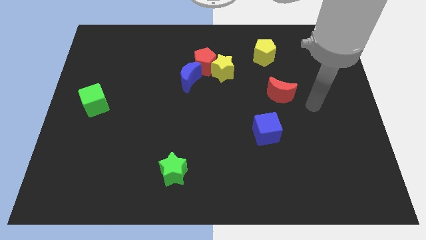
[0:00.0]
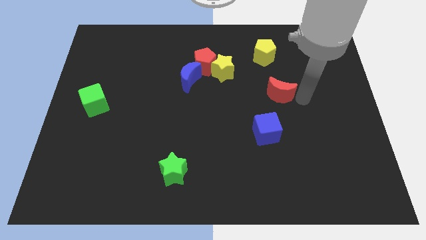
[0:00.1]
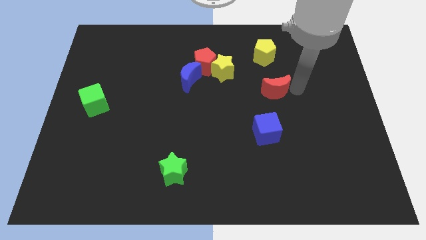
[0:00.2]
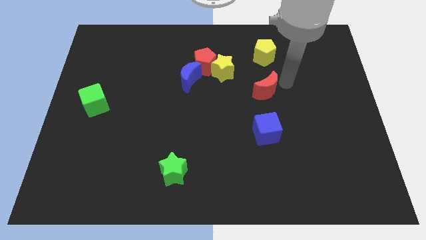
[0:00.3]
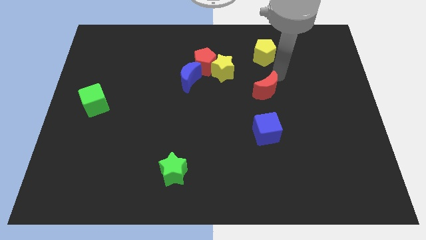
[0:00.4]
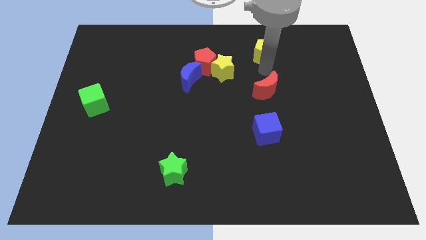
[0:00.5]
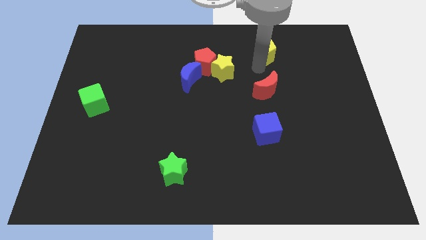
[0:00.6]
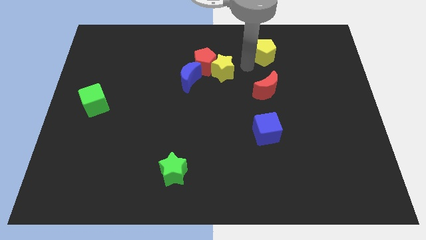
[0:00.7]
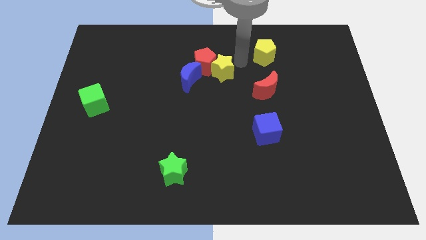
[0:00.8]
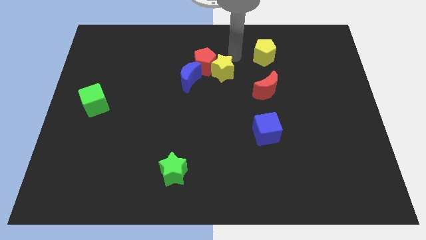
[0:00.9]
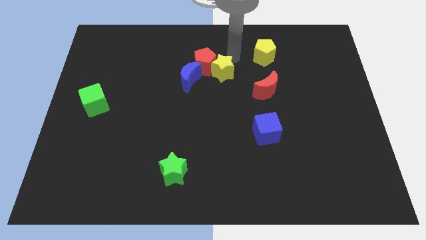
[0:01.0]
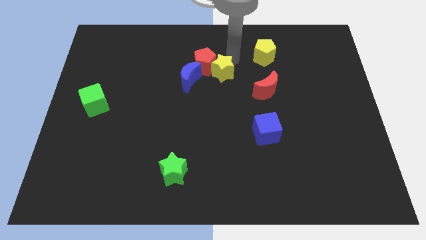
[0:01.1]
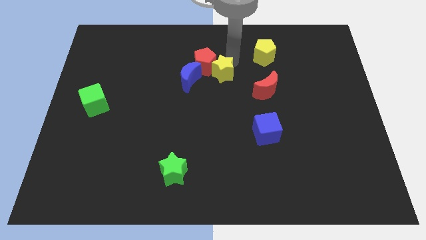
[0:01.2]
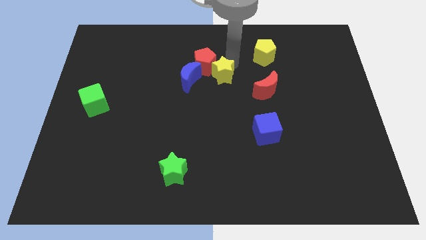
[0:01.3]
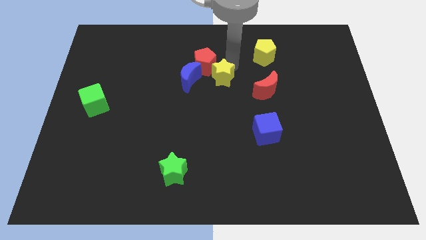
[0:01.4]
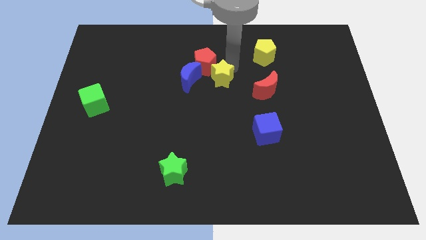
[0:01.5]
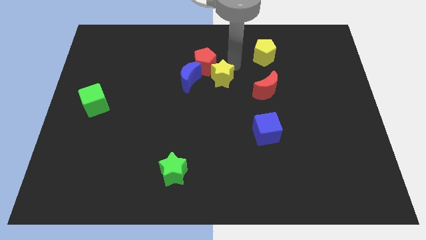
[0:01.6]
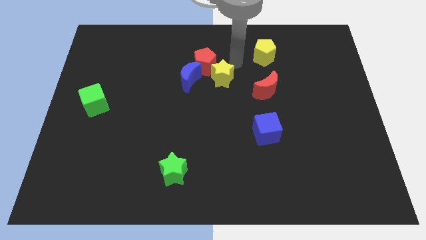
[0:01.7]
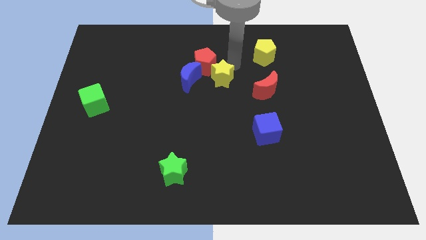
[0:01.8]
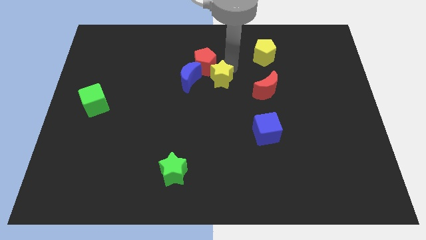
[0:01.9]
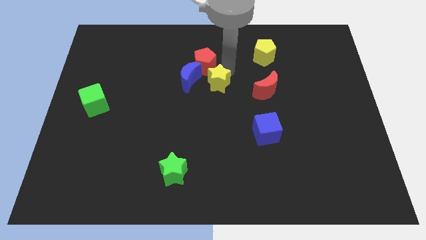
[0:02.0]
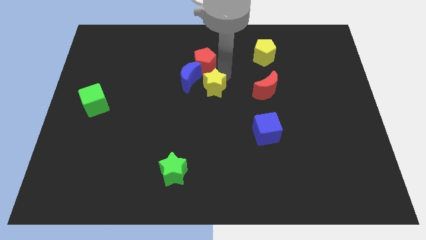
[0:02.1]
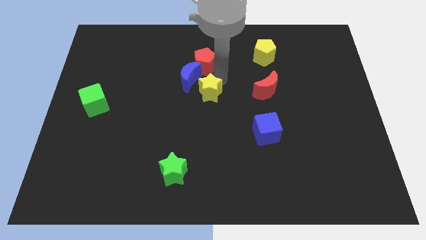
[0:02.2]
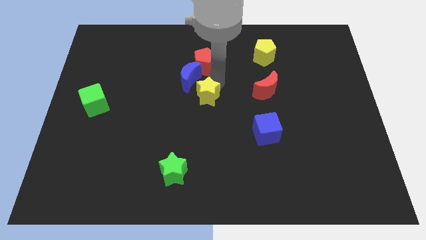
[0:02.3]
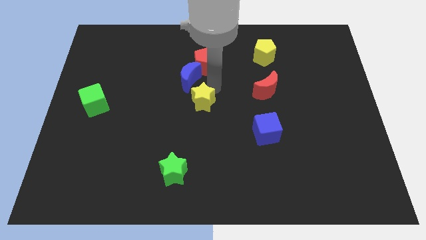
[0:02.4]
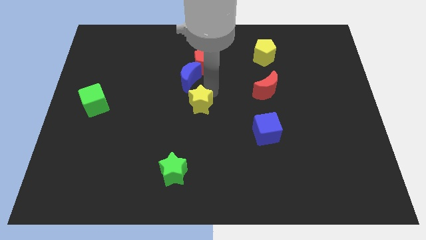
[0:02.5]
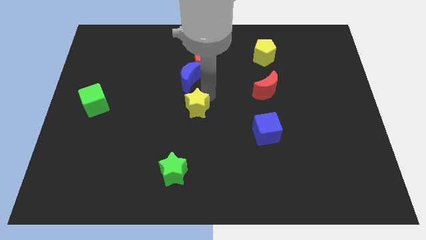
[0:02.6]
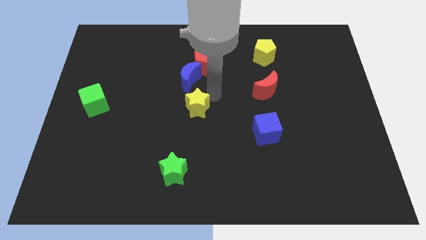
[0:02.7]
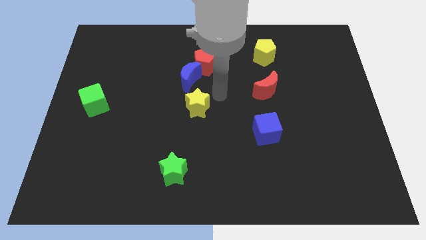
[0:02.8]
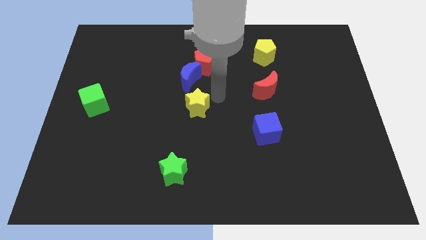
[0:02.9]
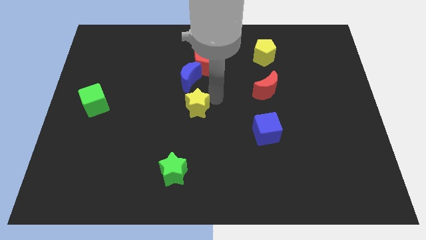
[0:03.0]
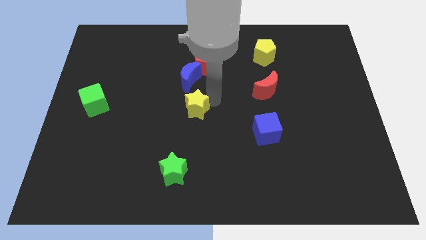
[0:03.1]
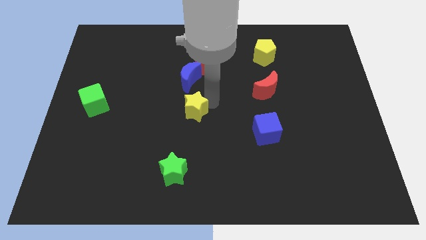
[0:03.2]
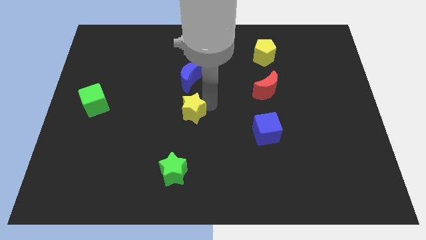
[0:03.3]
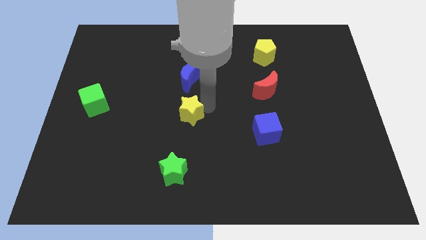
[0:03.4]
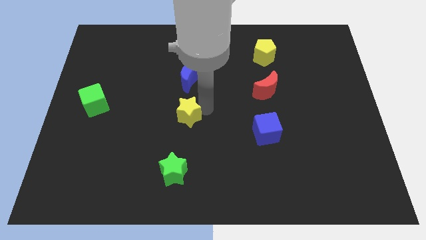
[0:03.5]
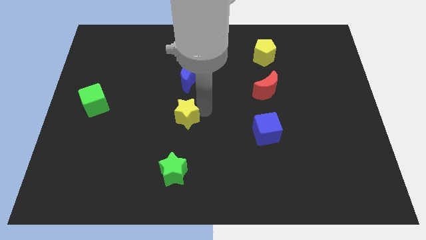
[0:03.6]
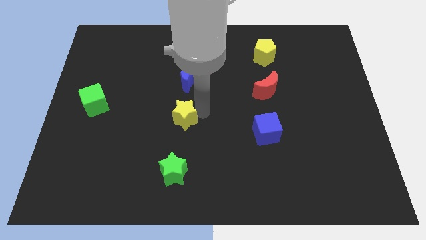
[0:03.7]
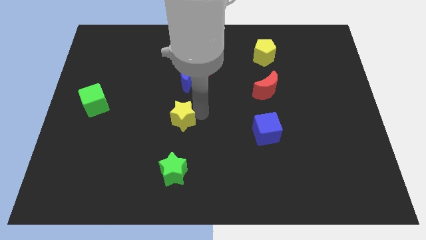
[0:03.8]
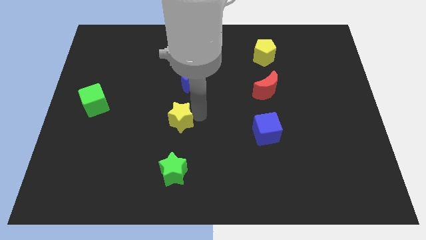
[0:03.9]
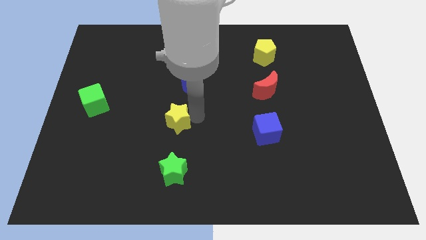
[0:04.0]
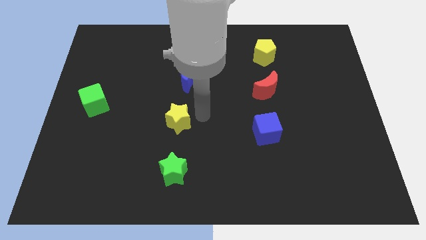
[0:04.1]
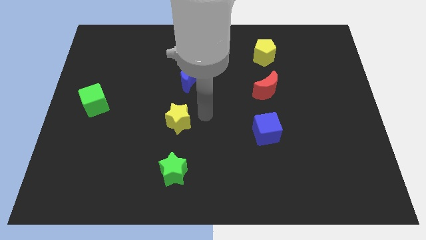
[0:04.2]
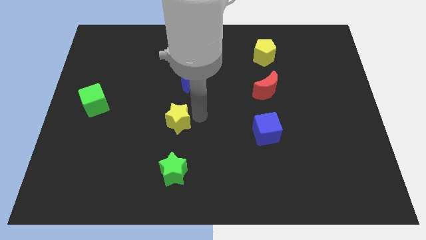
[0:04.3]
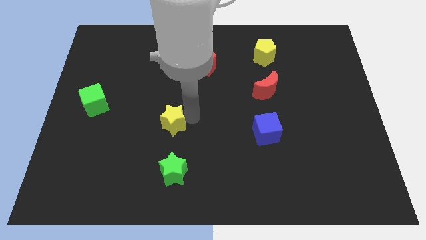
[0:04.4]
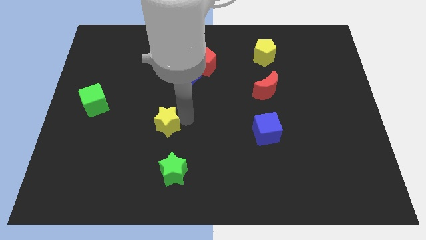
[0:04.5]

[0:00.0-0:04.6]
slide the yellow star diagonally downwards and left

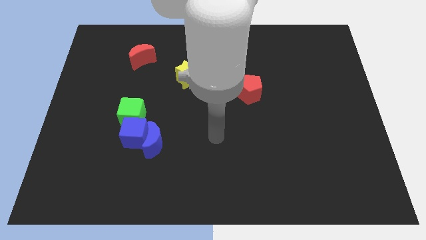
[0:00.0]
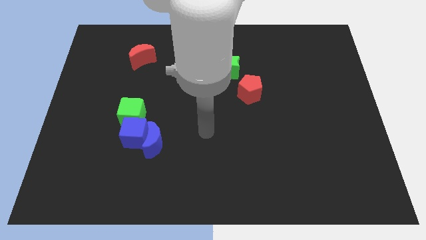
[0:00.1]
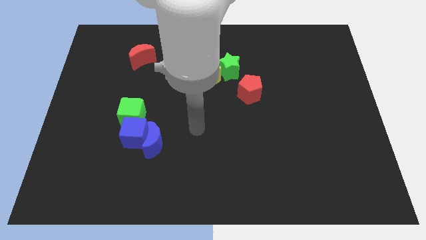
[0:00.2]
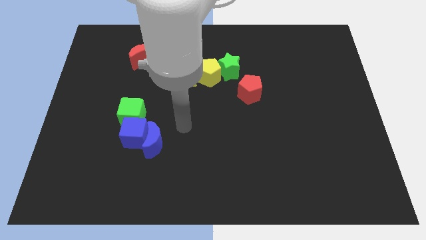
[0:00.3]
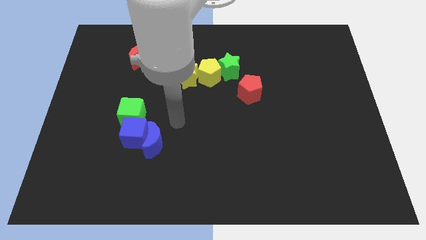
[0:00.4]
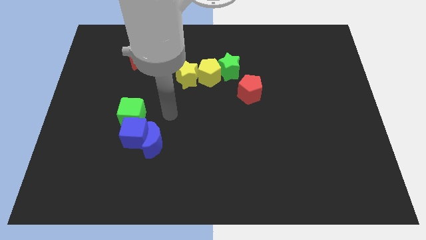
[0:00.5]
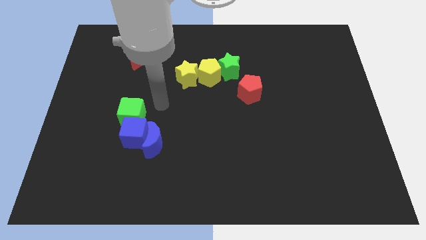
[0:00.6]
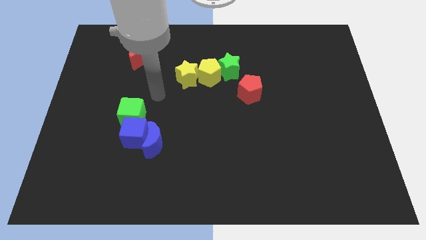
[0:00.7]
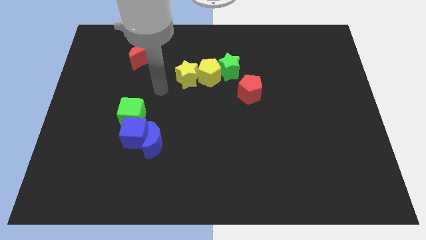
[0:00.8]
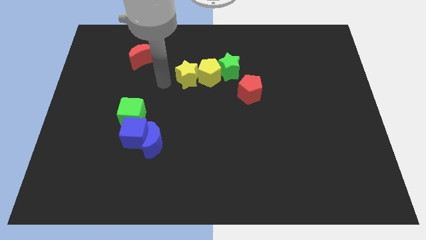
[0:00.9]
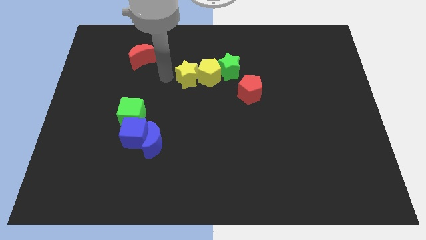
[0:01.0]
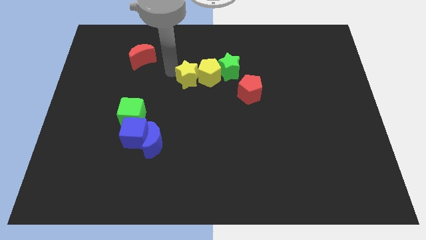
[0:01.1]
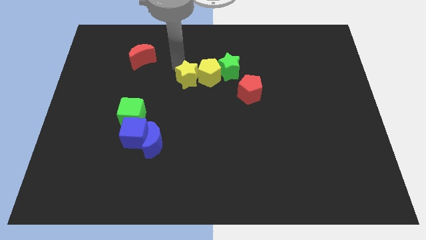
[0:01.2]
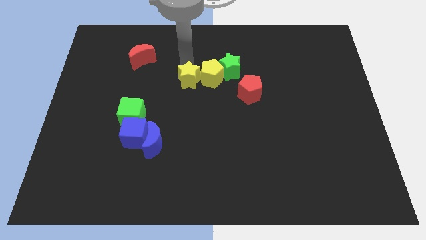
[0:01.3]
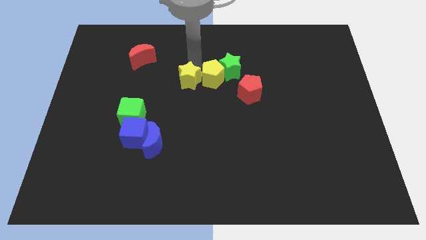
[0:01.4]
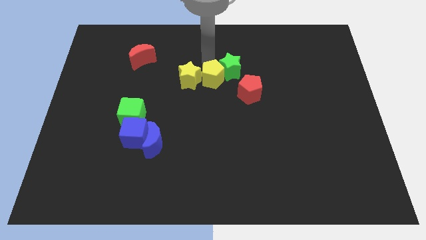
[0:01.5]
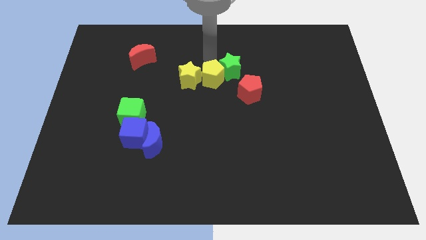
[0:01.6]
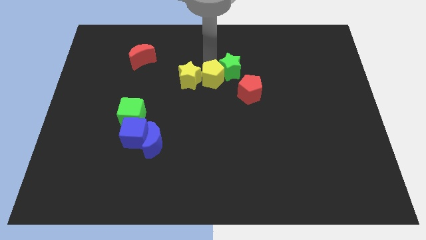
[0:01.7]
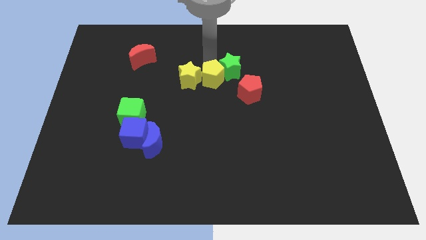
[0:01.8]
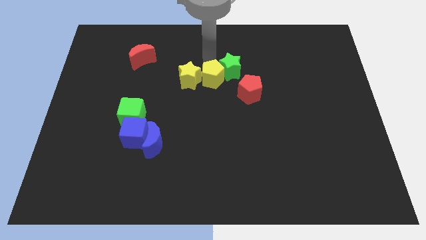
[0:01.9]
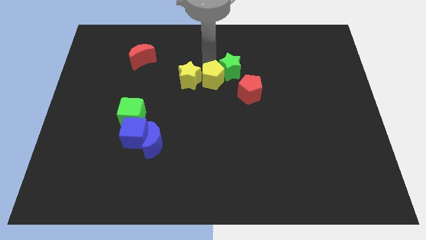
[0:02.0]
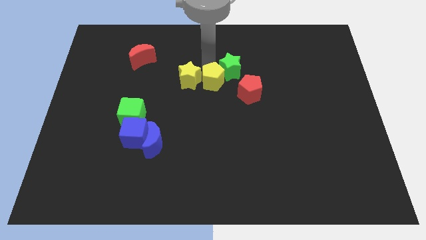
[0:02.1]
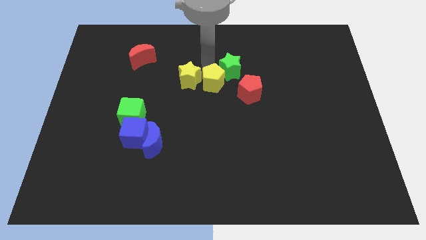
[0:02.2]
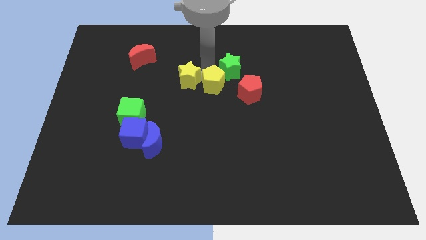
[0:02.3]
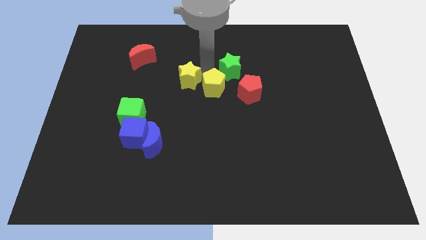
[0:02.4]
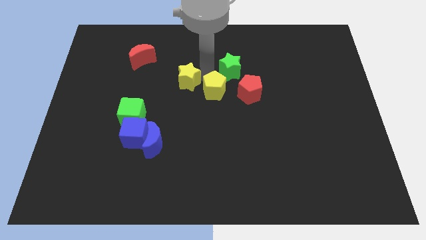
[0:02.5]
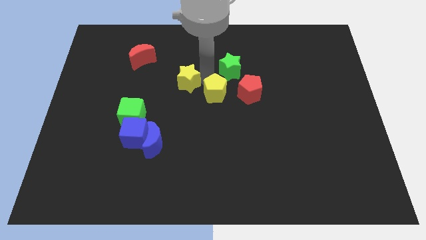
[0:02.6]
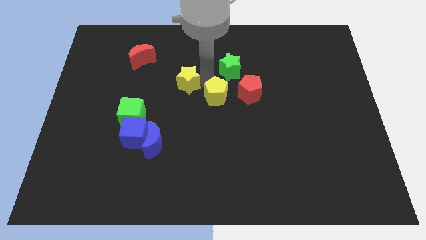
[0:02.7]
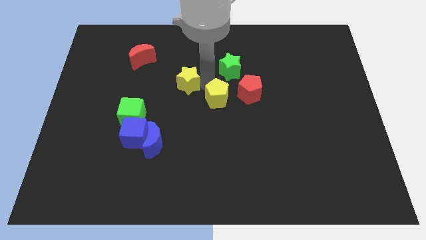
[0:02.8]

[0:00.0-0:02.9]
slightly push the yellow pentagon down

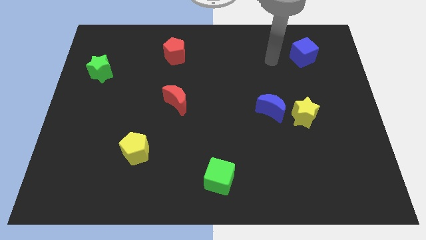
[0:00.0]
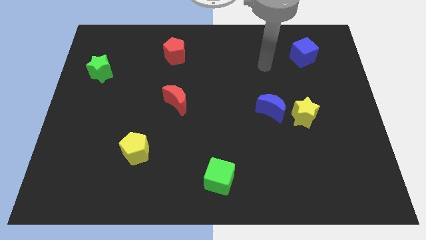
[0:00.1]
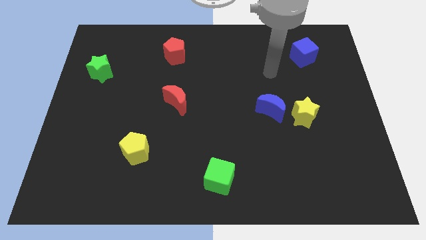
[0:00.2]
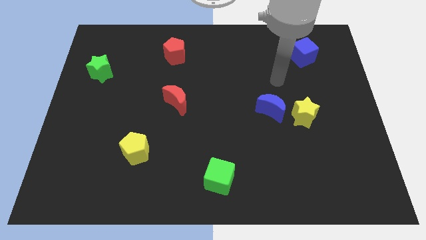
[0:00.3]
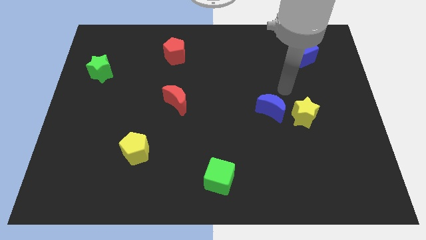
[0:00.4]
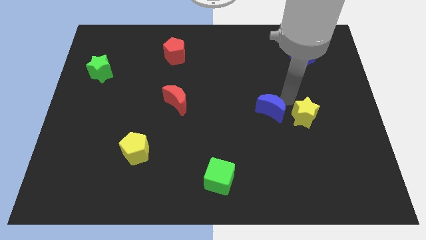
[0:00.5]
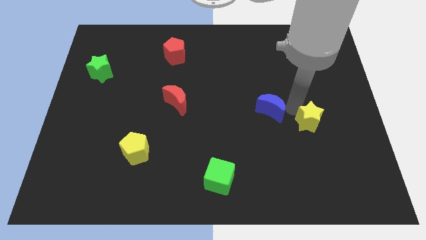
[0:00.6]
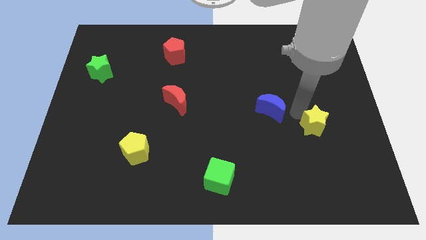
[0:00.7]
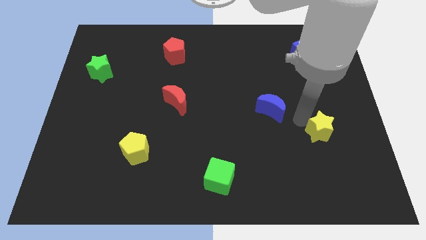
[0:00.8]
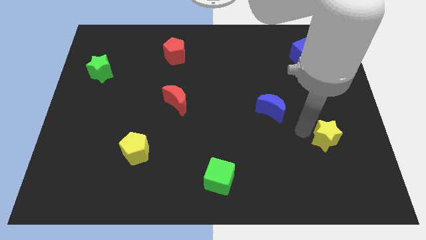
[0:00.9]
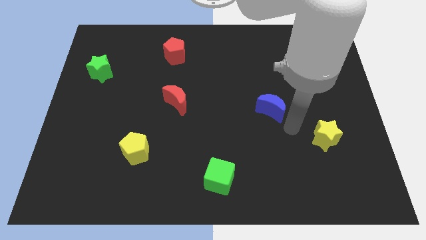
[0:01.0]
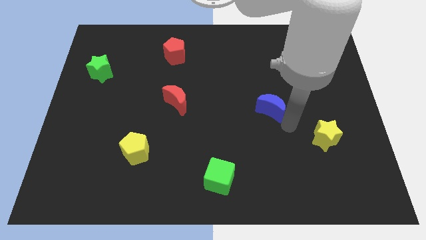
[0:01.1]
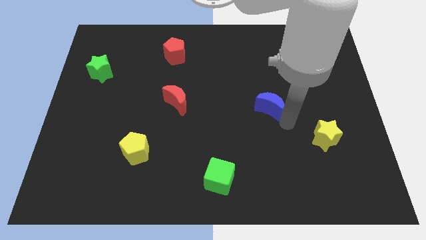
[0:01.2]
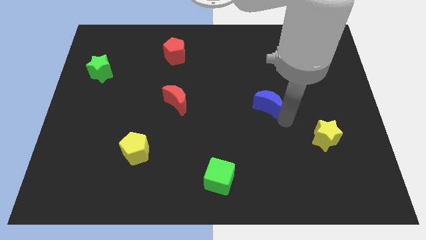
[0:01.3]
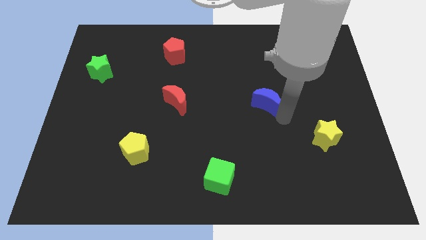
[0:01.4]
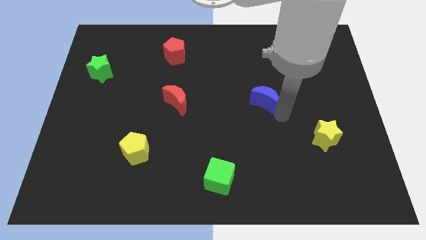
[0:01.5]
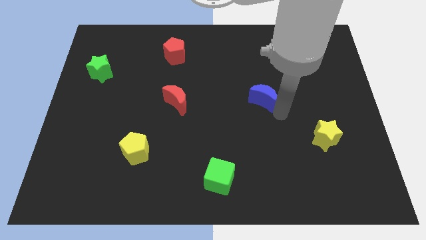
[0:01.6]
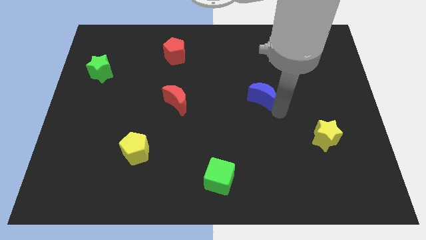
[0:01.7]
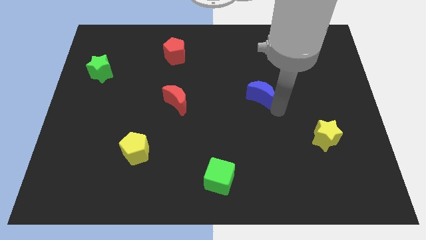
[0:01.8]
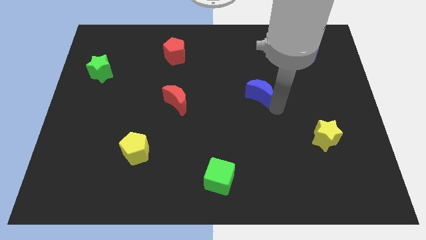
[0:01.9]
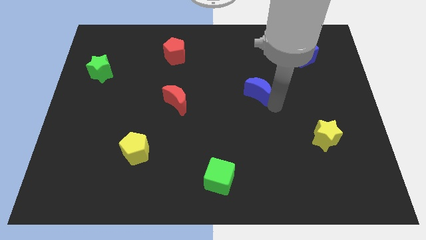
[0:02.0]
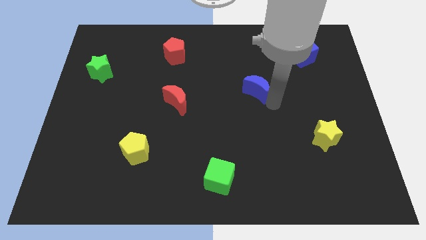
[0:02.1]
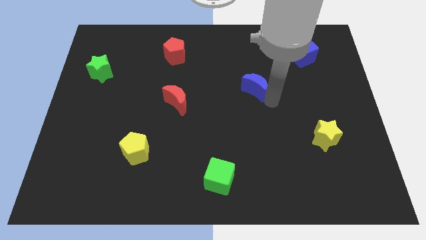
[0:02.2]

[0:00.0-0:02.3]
move the blue moon diagonally upwards and to the left somewhat
